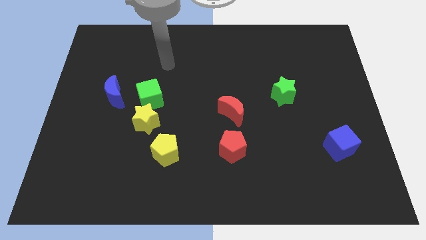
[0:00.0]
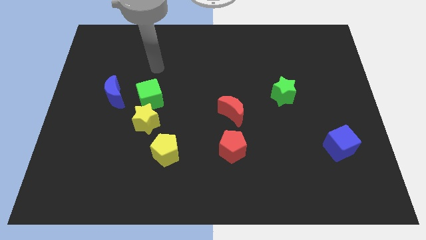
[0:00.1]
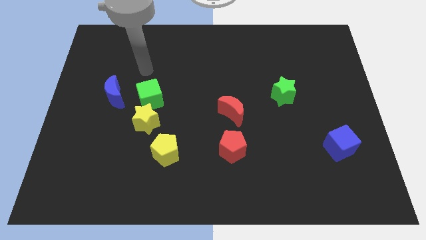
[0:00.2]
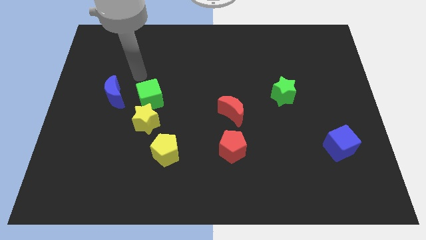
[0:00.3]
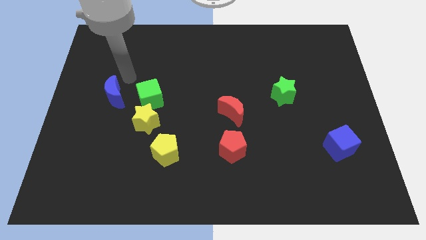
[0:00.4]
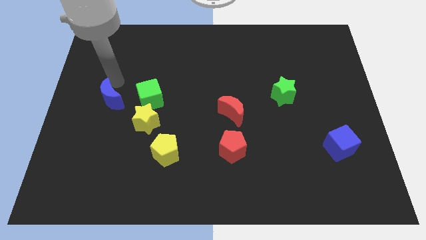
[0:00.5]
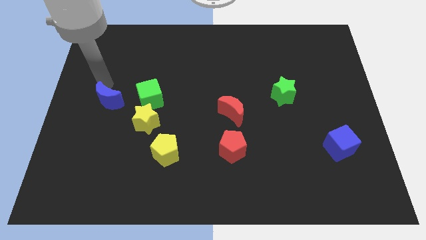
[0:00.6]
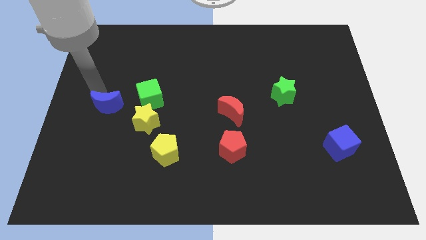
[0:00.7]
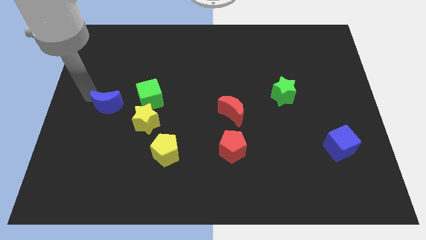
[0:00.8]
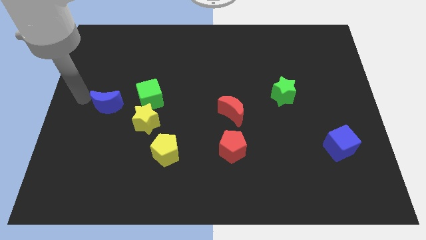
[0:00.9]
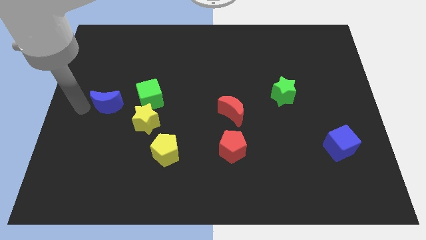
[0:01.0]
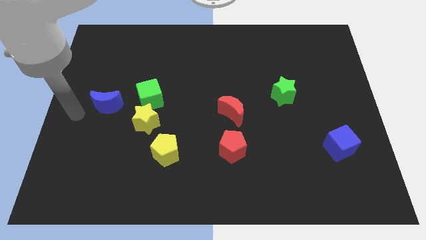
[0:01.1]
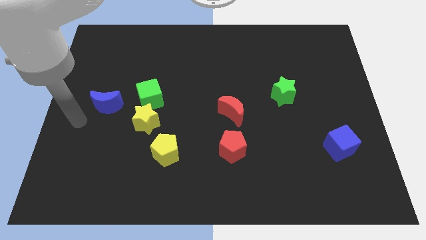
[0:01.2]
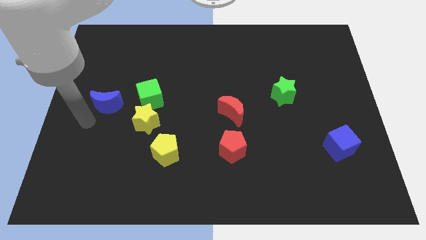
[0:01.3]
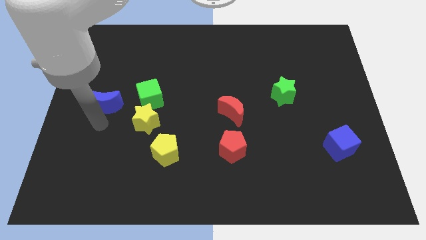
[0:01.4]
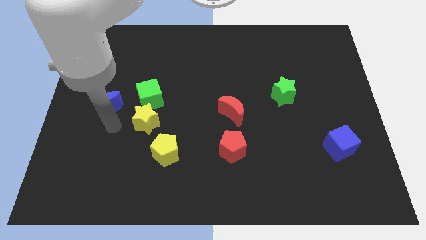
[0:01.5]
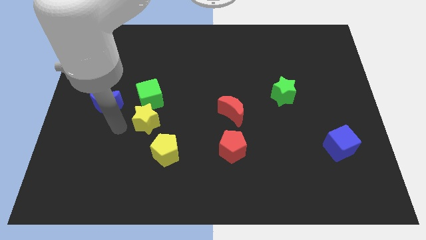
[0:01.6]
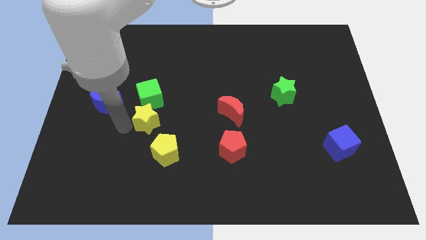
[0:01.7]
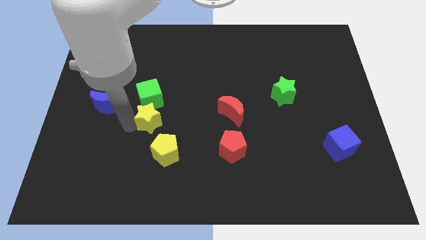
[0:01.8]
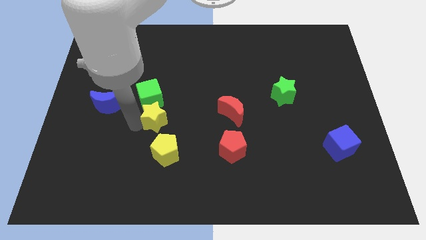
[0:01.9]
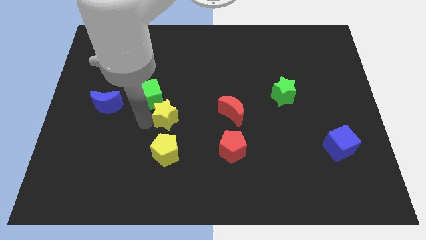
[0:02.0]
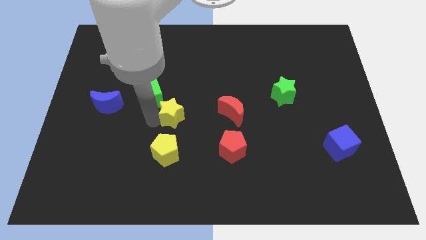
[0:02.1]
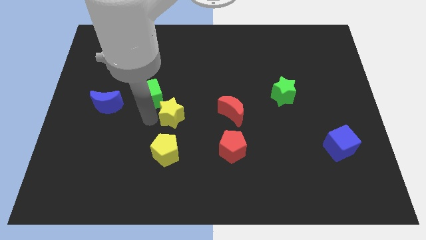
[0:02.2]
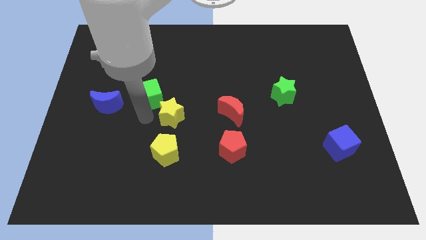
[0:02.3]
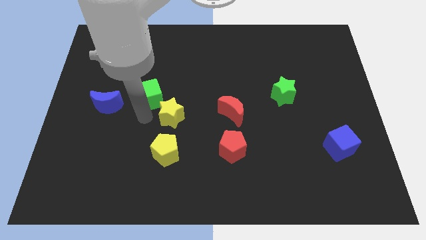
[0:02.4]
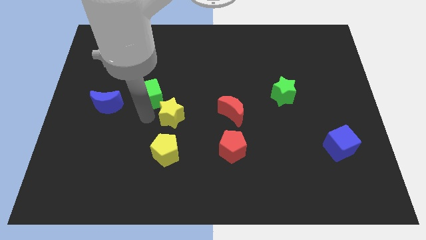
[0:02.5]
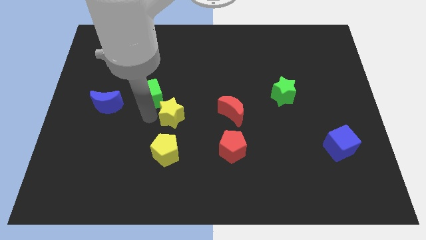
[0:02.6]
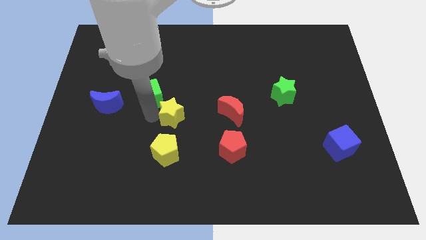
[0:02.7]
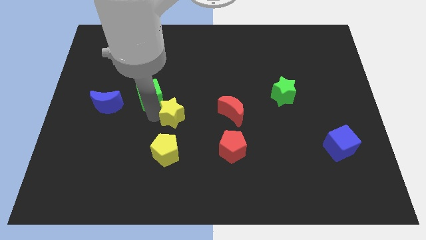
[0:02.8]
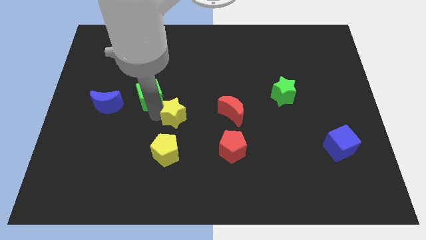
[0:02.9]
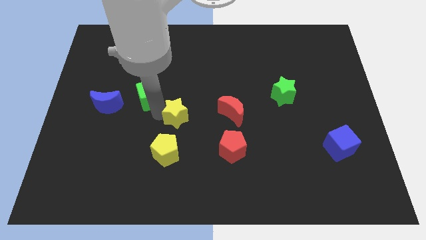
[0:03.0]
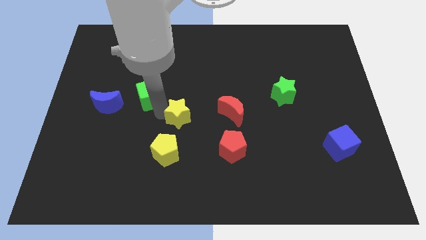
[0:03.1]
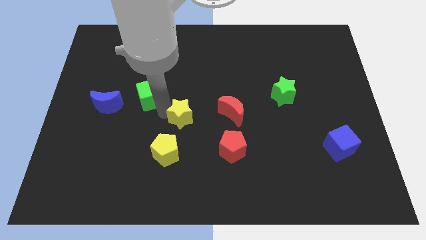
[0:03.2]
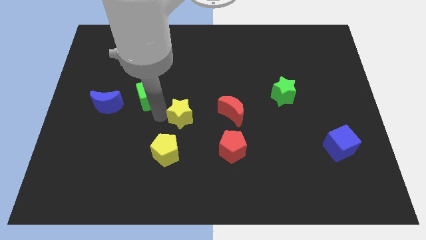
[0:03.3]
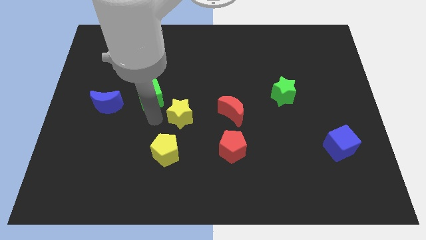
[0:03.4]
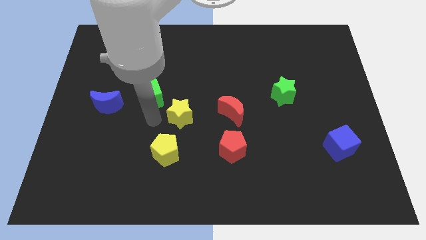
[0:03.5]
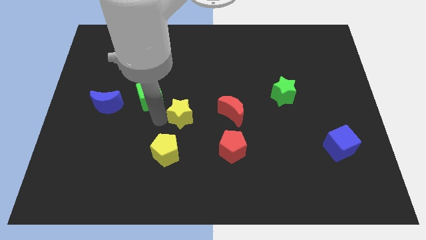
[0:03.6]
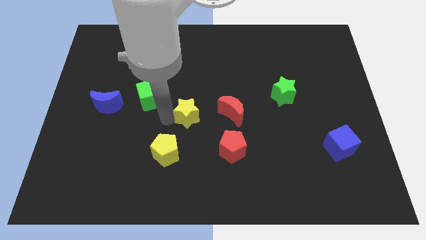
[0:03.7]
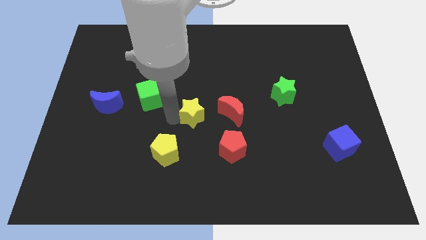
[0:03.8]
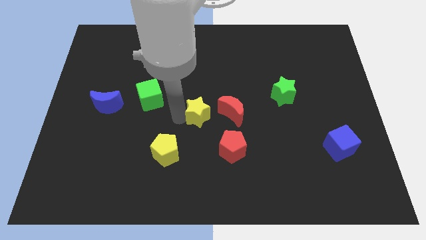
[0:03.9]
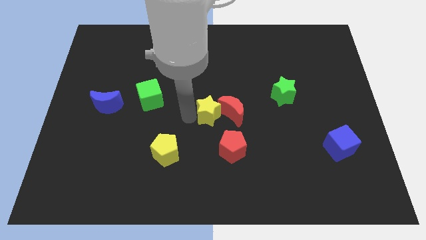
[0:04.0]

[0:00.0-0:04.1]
put the yellow star towards the red moon

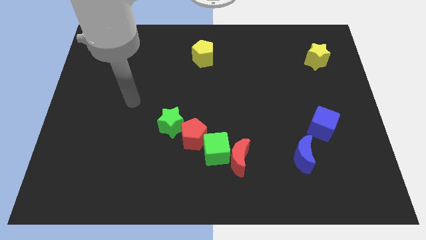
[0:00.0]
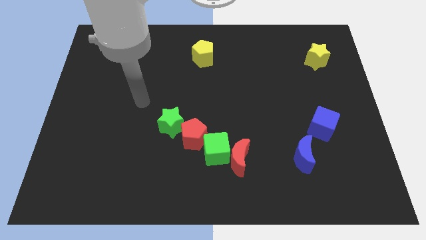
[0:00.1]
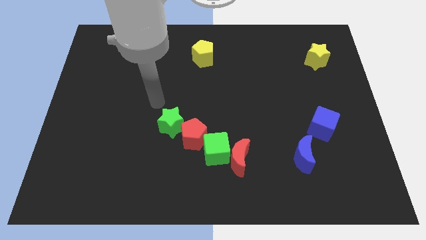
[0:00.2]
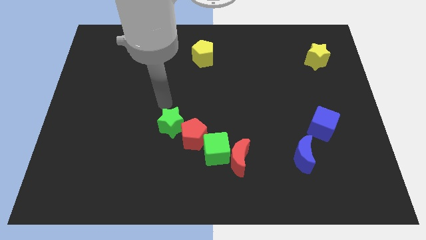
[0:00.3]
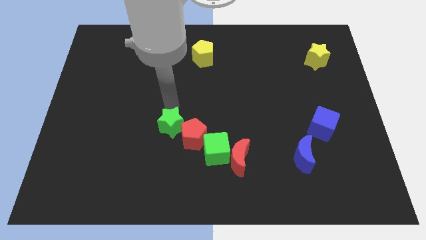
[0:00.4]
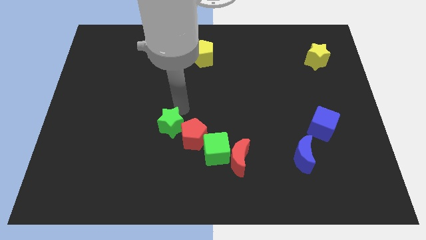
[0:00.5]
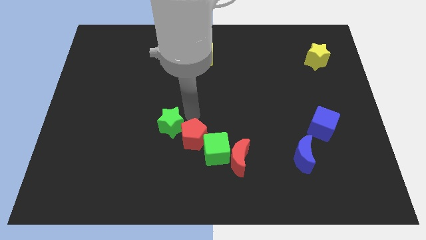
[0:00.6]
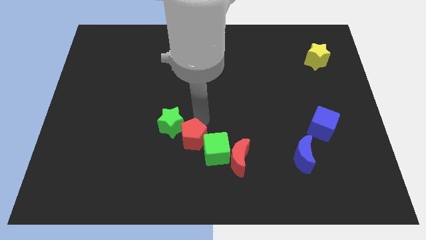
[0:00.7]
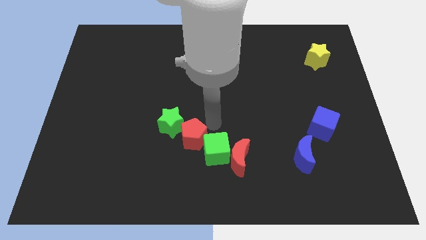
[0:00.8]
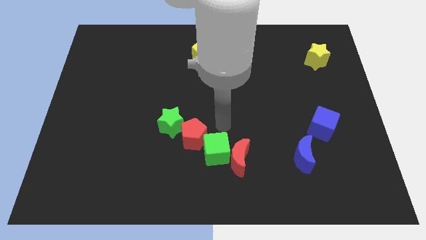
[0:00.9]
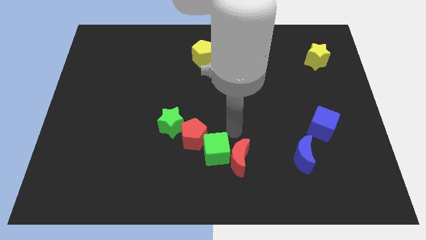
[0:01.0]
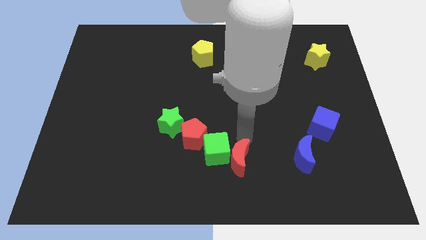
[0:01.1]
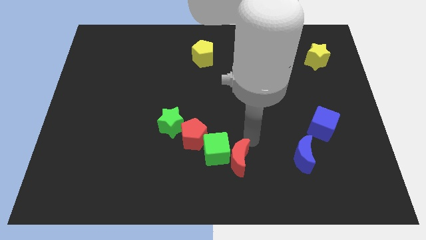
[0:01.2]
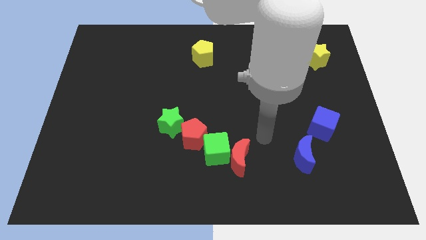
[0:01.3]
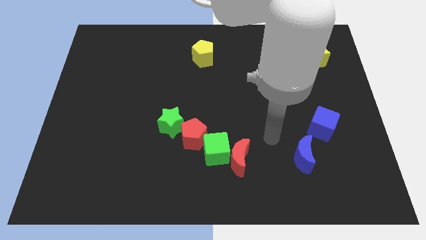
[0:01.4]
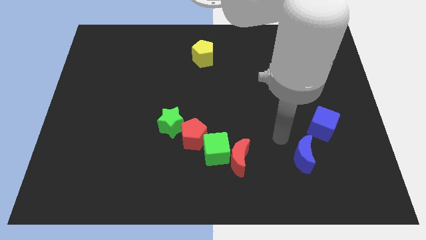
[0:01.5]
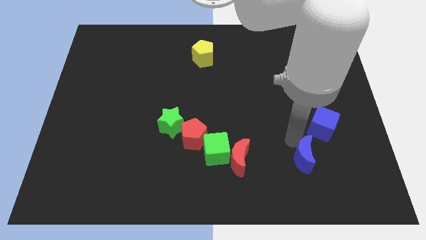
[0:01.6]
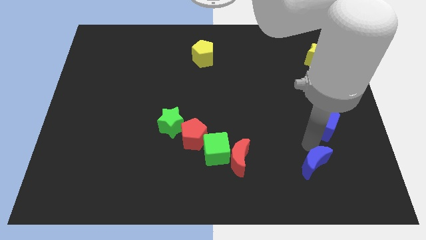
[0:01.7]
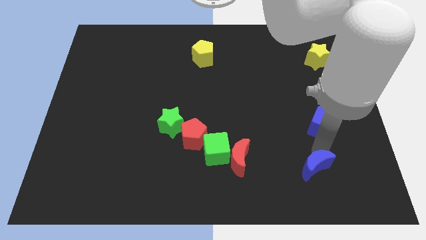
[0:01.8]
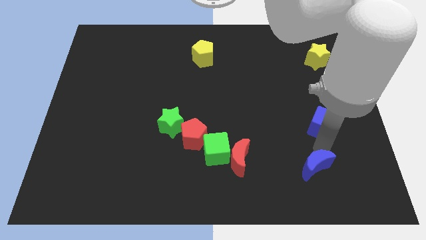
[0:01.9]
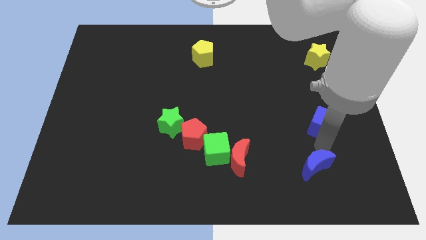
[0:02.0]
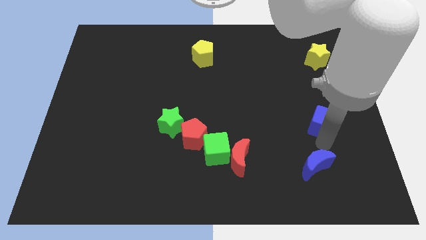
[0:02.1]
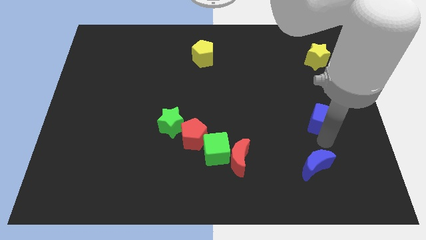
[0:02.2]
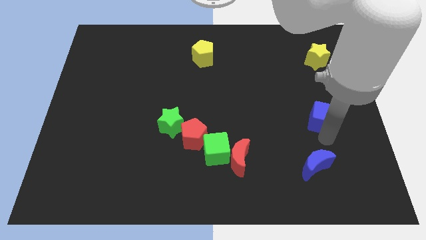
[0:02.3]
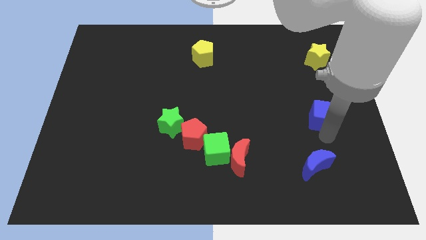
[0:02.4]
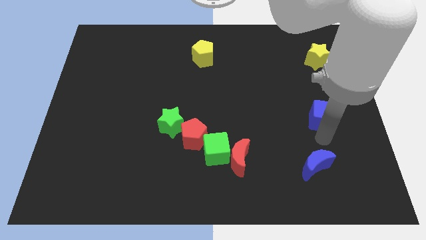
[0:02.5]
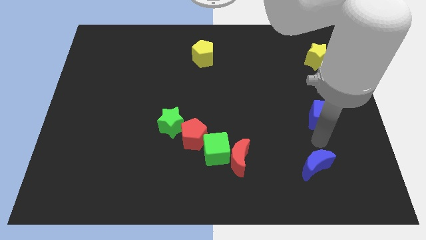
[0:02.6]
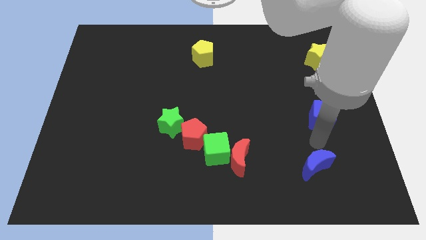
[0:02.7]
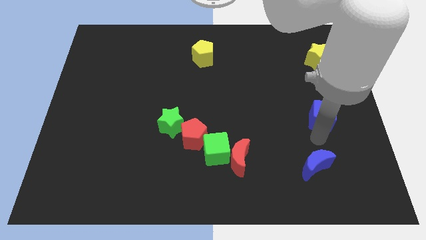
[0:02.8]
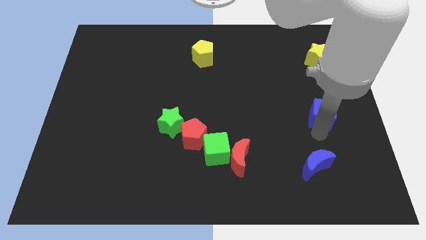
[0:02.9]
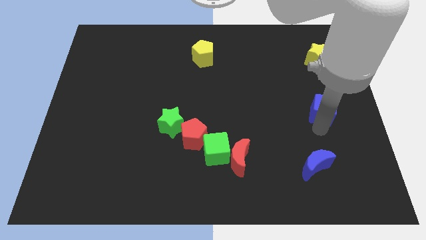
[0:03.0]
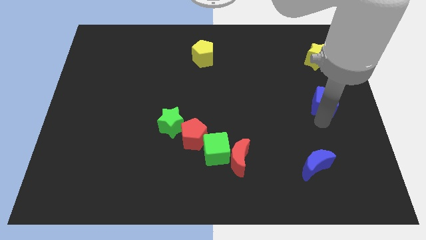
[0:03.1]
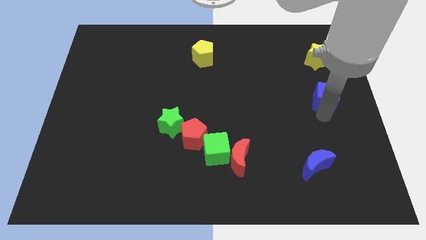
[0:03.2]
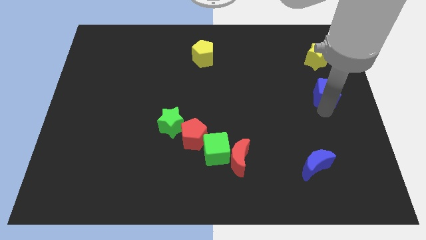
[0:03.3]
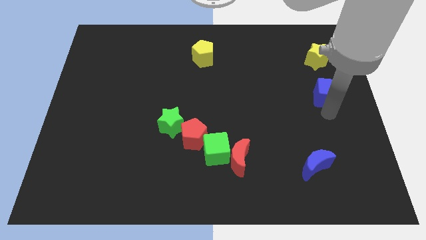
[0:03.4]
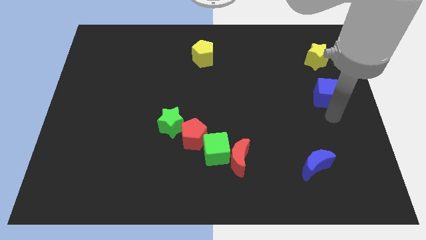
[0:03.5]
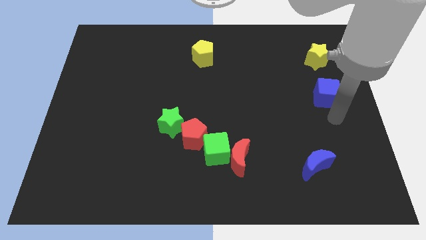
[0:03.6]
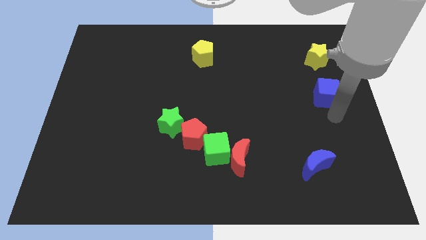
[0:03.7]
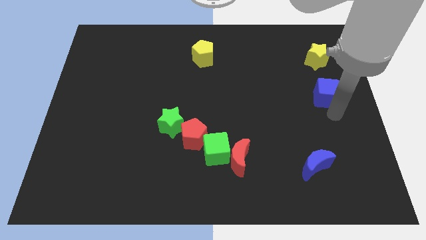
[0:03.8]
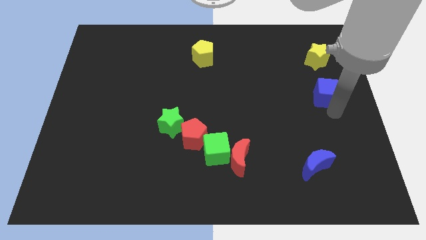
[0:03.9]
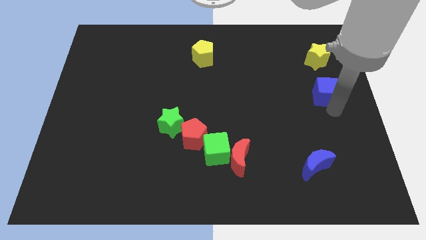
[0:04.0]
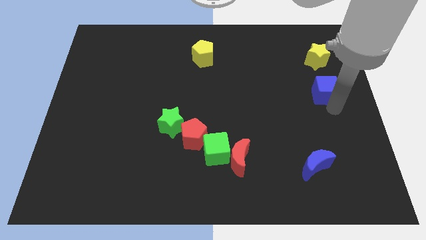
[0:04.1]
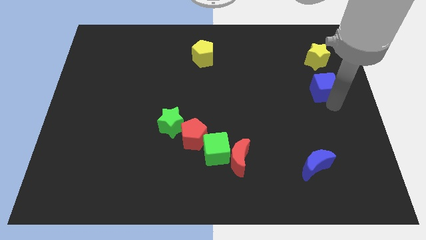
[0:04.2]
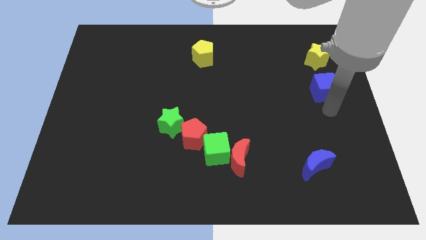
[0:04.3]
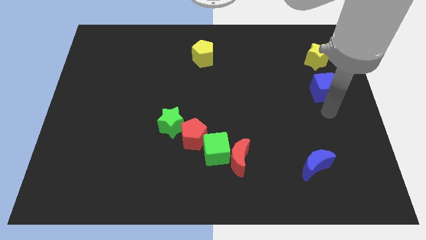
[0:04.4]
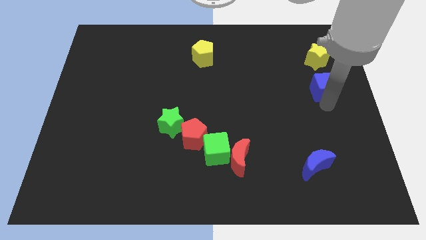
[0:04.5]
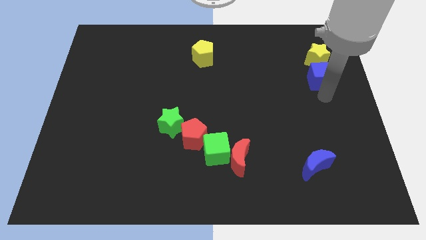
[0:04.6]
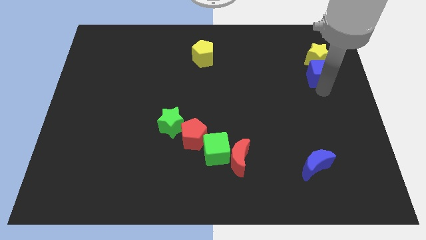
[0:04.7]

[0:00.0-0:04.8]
move the blue cube close to the yellow star
